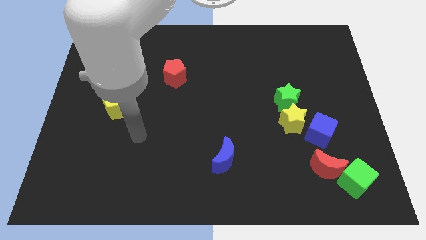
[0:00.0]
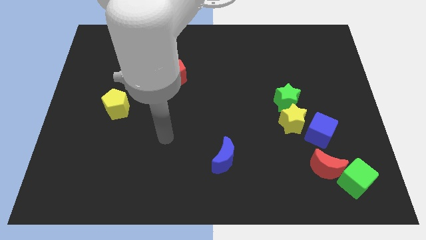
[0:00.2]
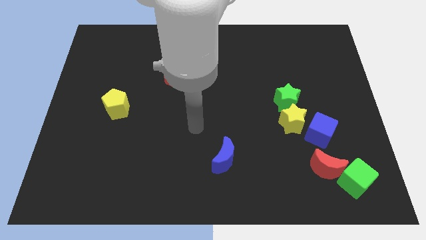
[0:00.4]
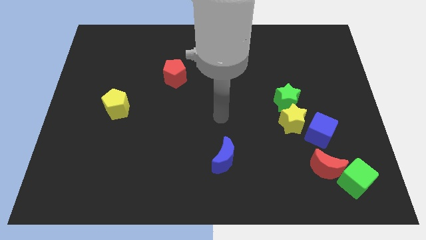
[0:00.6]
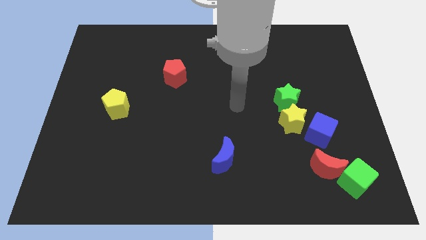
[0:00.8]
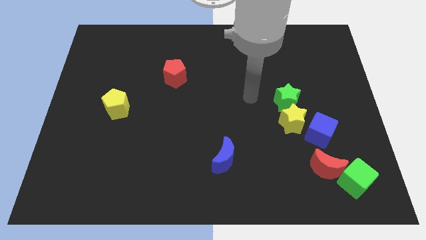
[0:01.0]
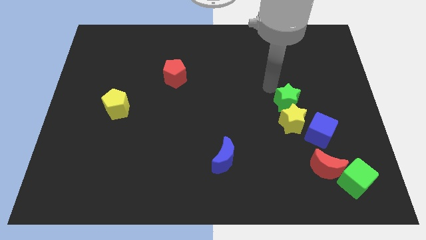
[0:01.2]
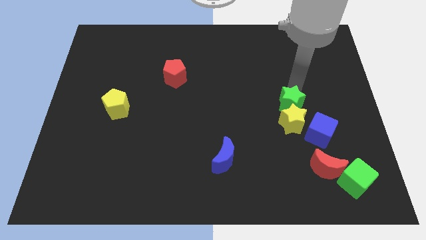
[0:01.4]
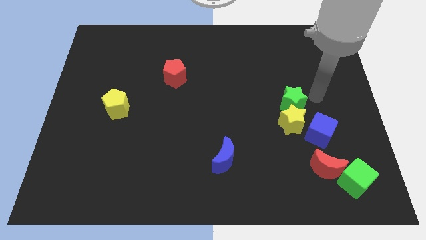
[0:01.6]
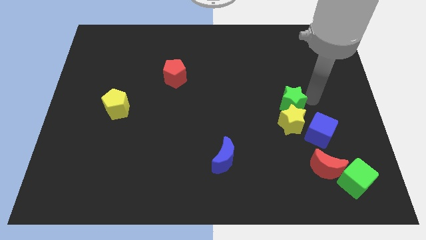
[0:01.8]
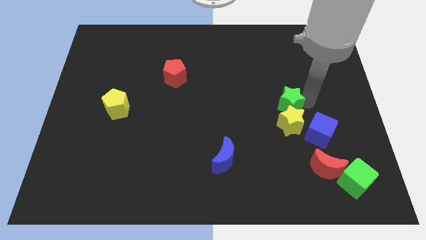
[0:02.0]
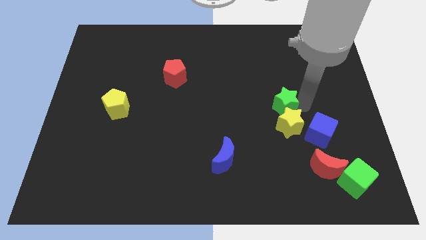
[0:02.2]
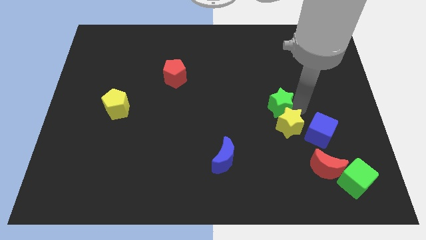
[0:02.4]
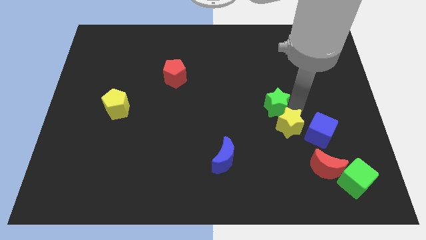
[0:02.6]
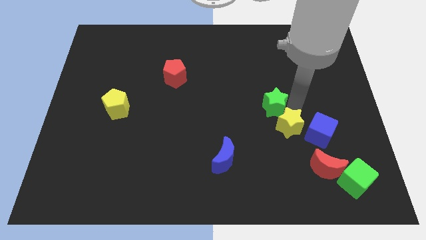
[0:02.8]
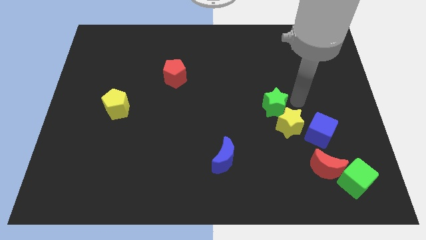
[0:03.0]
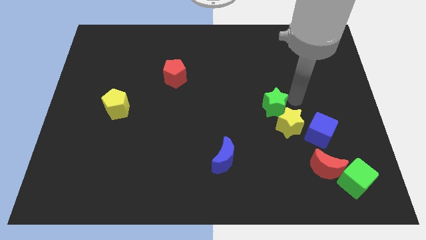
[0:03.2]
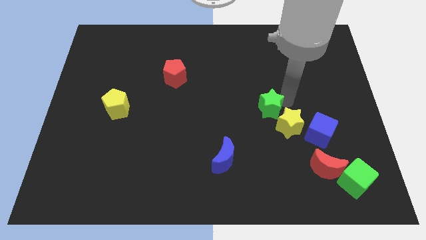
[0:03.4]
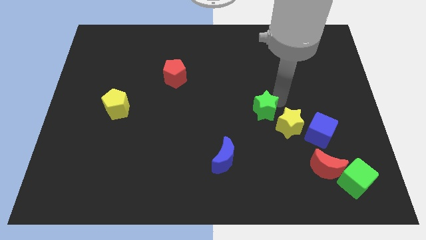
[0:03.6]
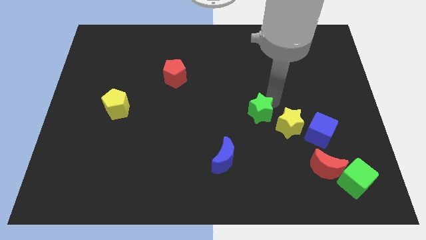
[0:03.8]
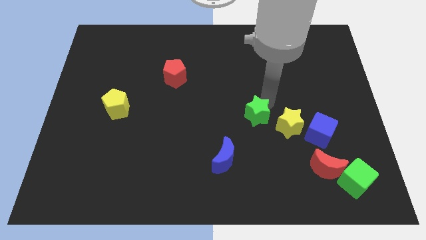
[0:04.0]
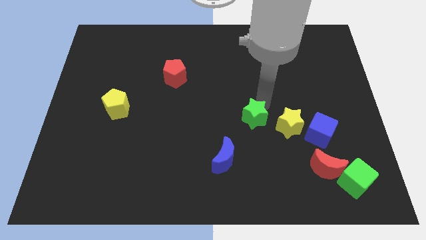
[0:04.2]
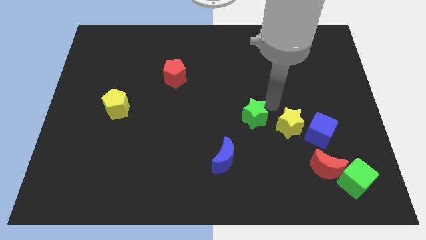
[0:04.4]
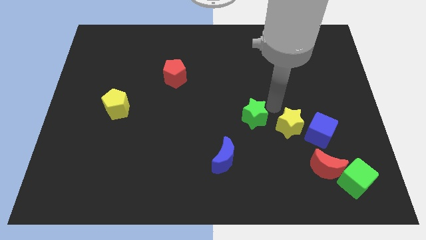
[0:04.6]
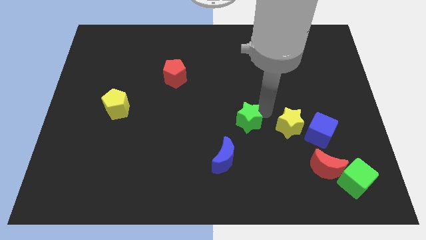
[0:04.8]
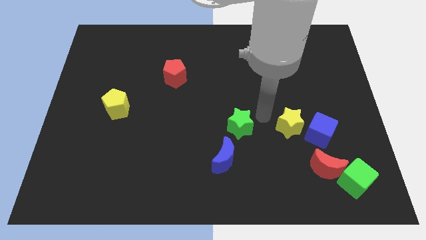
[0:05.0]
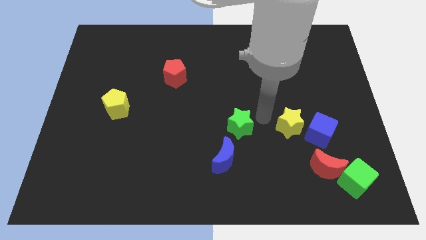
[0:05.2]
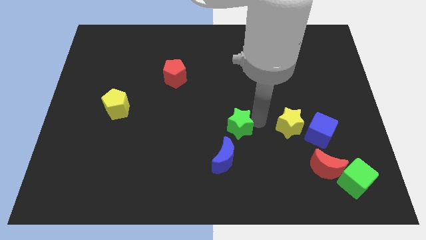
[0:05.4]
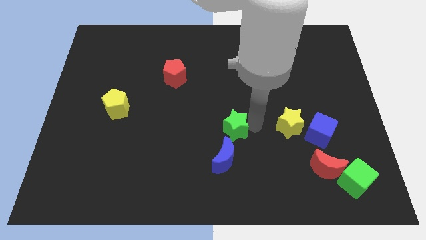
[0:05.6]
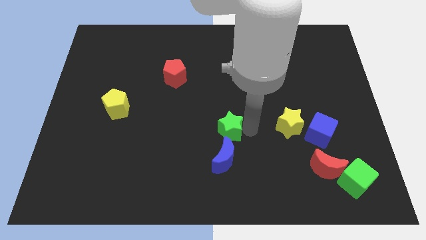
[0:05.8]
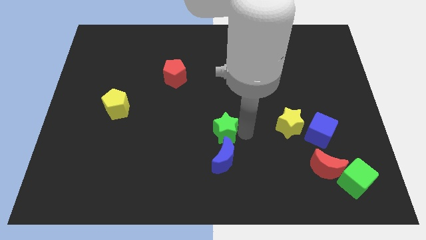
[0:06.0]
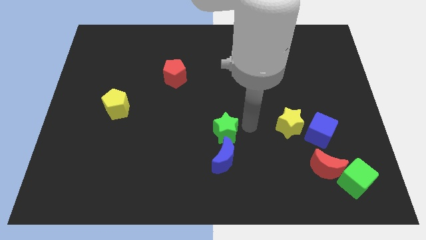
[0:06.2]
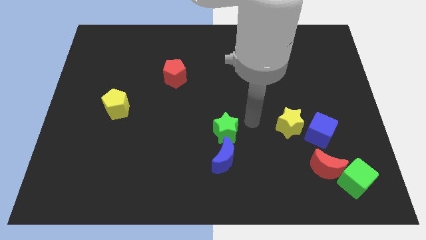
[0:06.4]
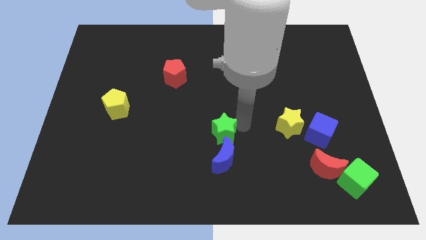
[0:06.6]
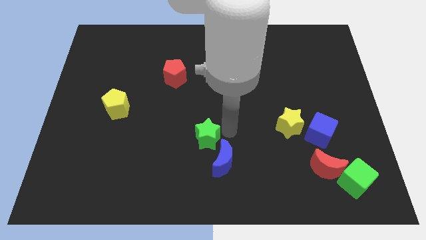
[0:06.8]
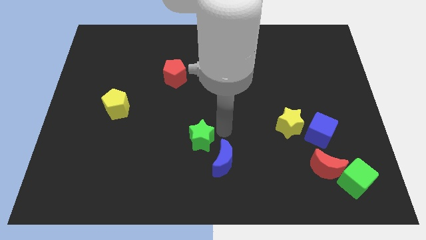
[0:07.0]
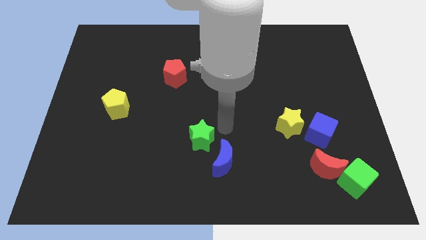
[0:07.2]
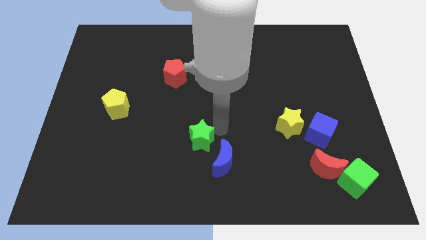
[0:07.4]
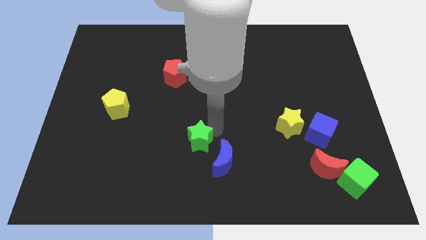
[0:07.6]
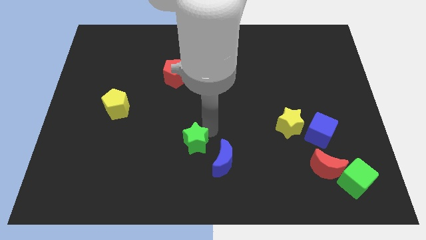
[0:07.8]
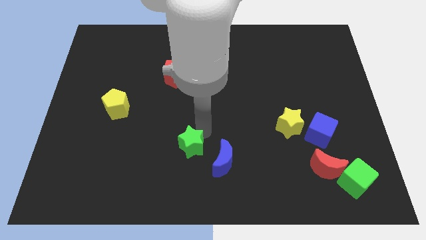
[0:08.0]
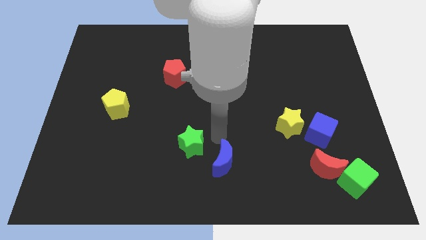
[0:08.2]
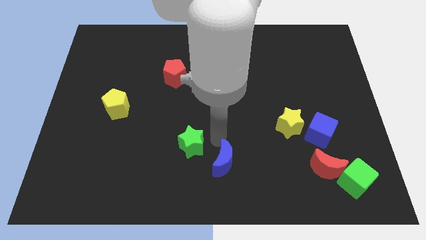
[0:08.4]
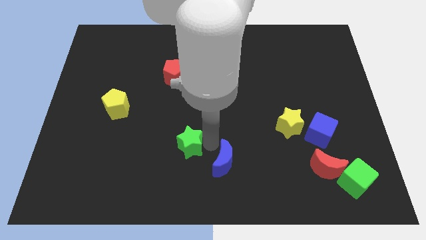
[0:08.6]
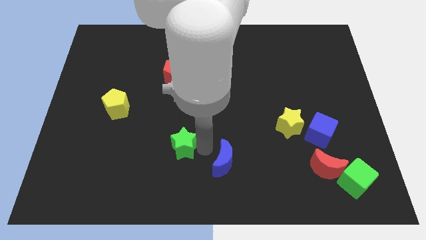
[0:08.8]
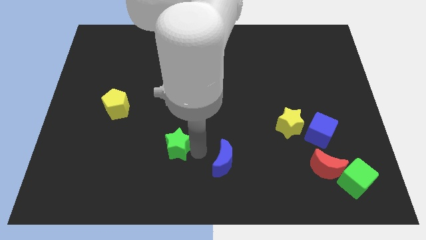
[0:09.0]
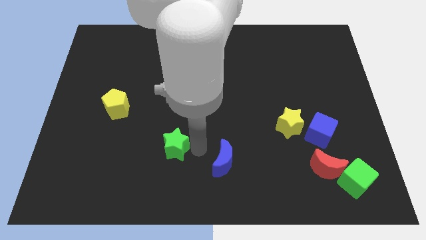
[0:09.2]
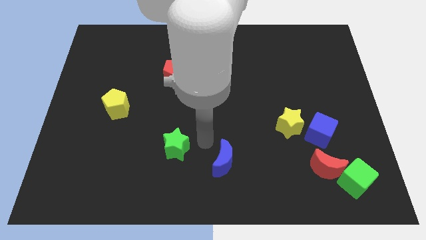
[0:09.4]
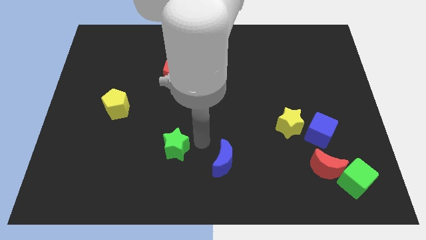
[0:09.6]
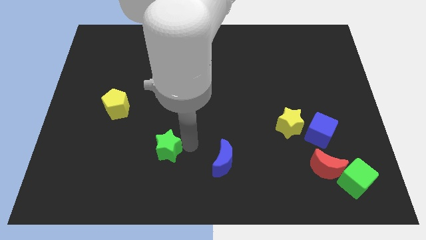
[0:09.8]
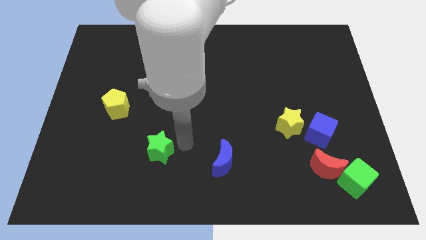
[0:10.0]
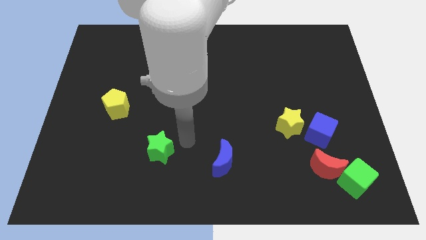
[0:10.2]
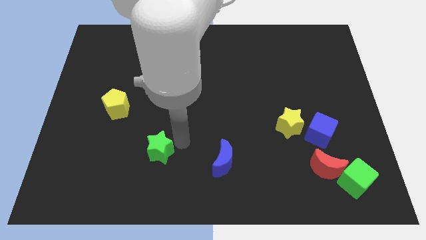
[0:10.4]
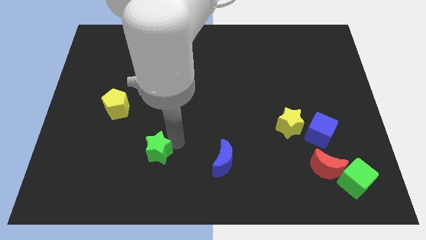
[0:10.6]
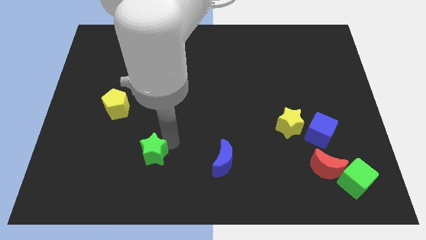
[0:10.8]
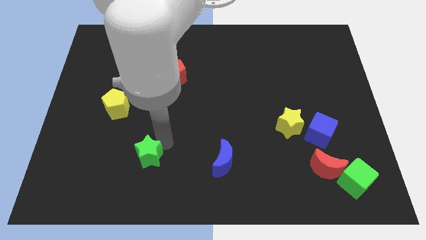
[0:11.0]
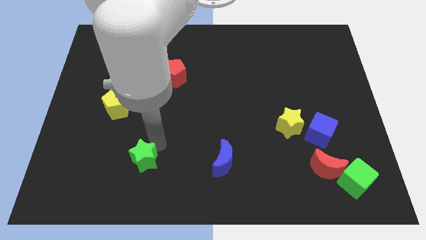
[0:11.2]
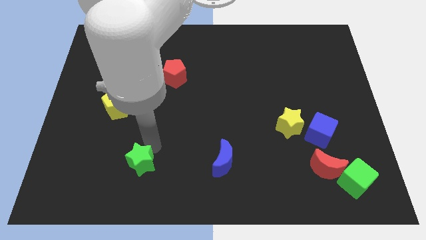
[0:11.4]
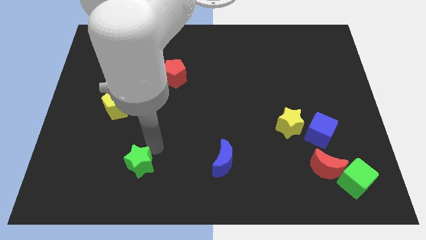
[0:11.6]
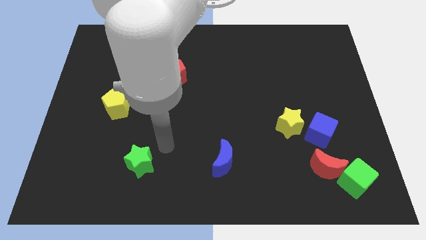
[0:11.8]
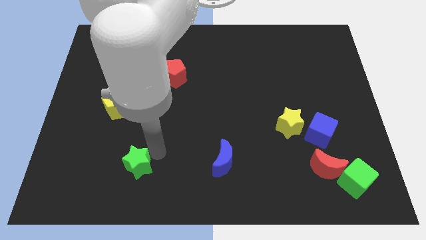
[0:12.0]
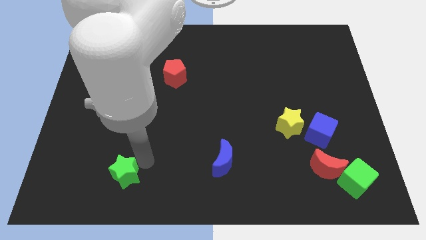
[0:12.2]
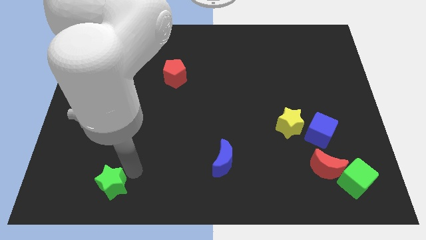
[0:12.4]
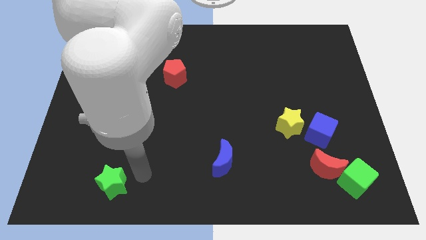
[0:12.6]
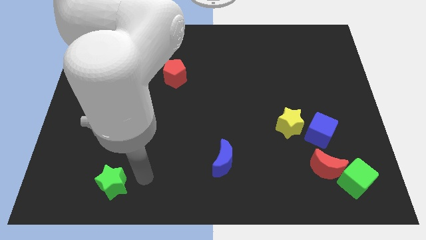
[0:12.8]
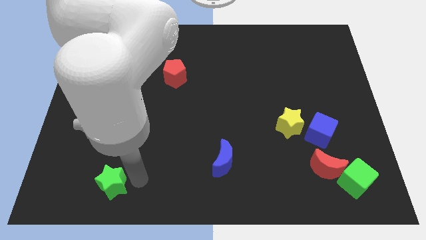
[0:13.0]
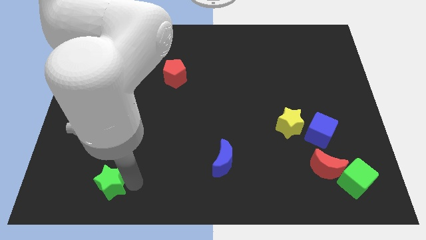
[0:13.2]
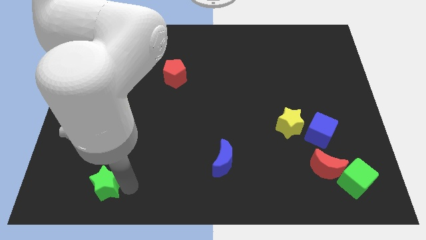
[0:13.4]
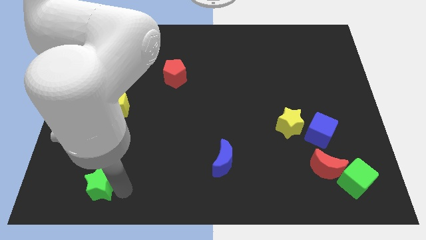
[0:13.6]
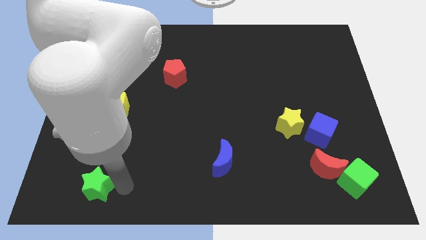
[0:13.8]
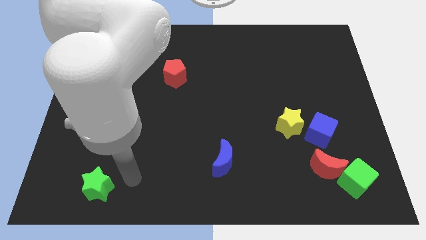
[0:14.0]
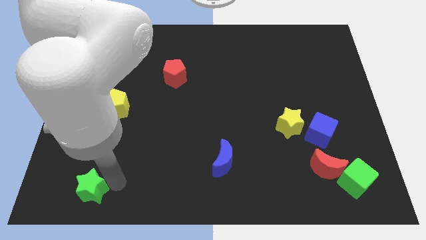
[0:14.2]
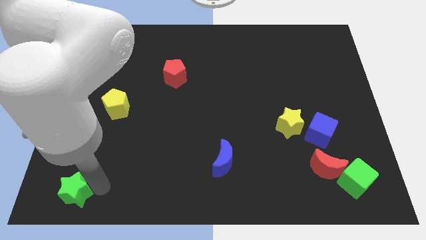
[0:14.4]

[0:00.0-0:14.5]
move the green star to the bottom left of the board
